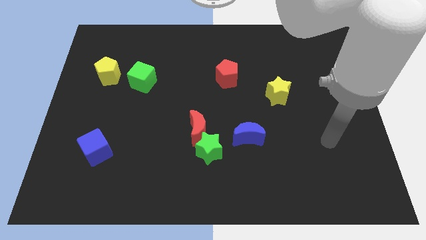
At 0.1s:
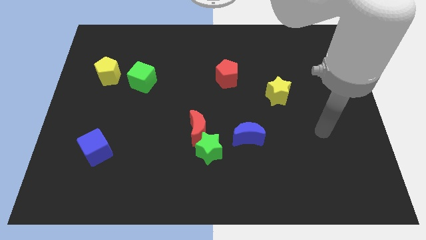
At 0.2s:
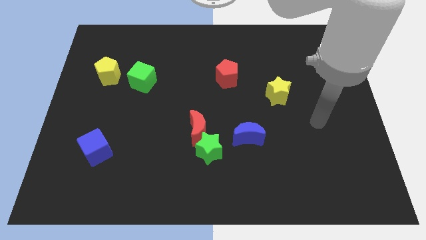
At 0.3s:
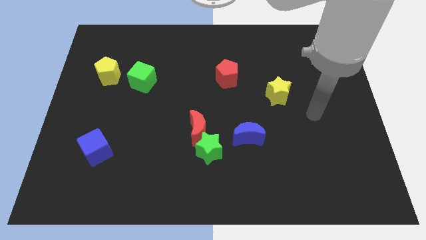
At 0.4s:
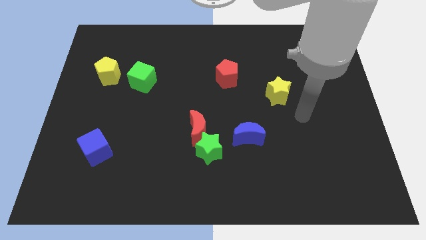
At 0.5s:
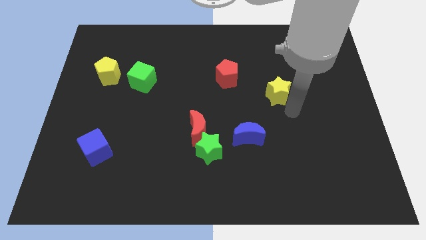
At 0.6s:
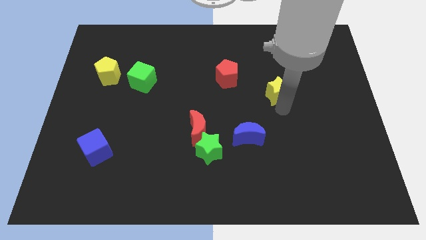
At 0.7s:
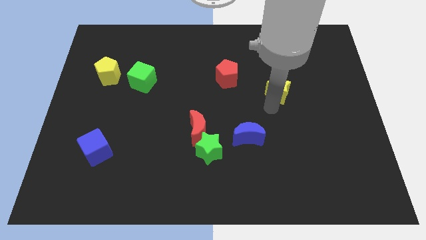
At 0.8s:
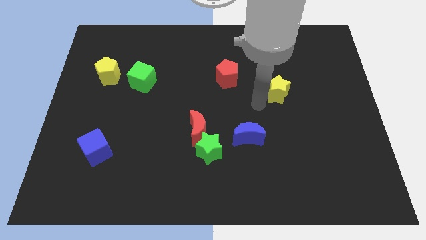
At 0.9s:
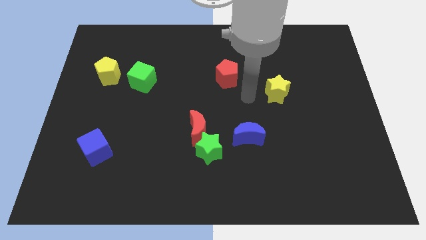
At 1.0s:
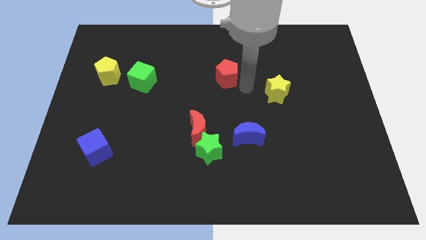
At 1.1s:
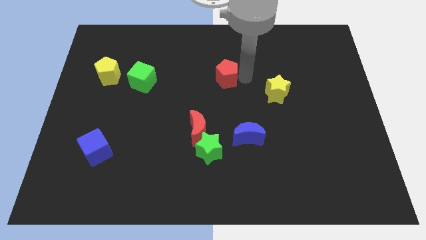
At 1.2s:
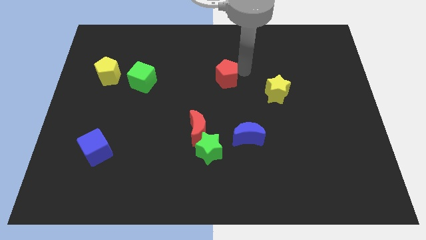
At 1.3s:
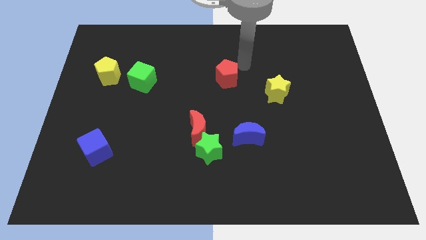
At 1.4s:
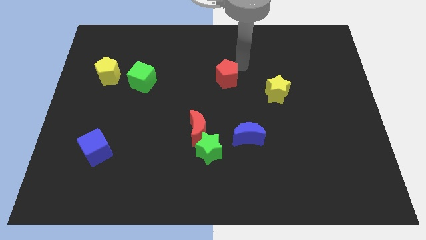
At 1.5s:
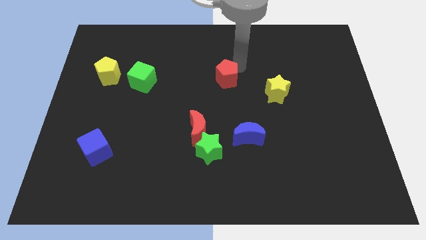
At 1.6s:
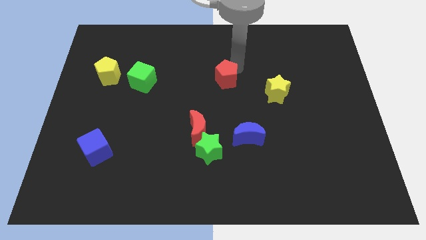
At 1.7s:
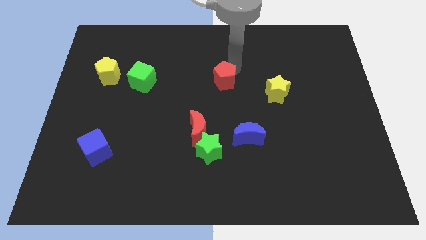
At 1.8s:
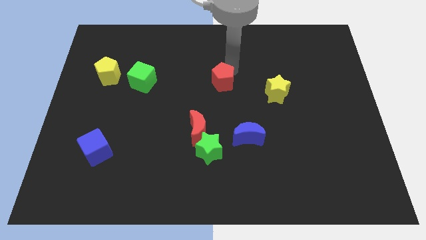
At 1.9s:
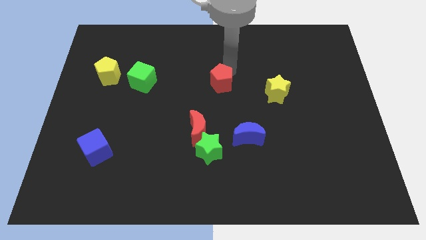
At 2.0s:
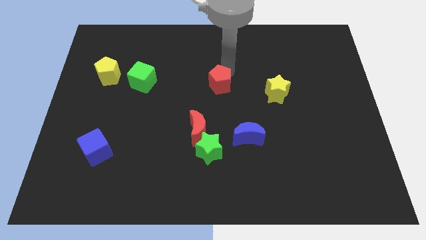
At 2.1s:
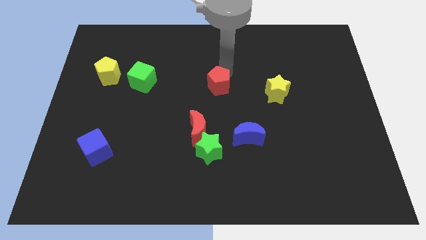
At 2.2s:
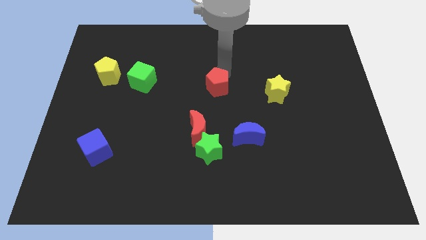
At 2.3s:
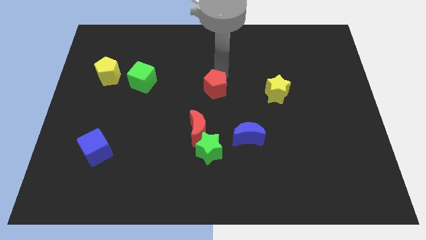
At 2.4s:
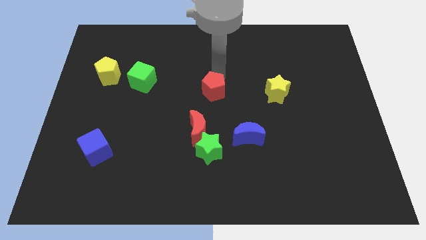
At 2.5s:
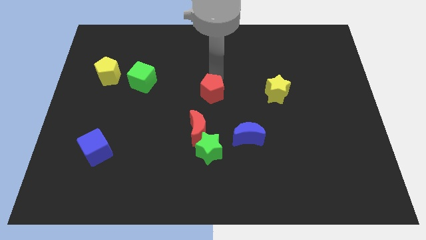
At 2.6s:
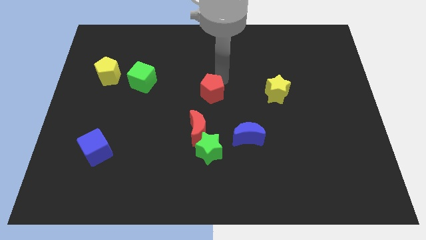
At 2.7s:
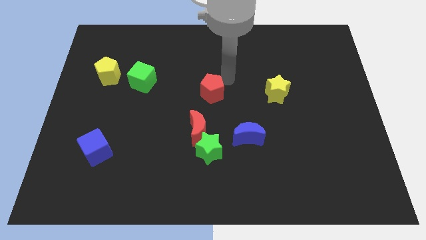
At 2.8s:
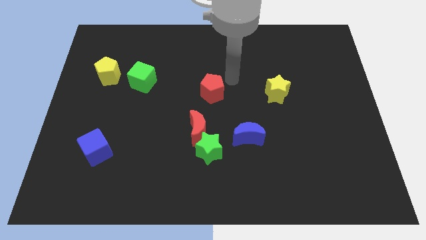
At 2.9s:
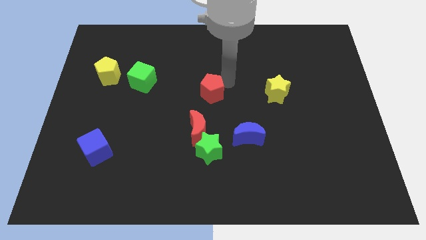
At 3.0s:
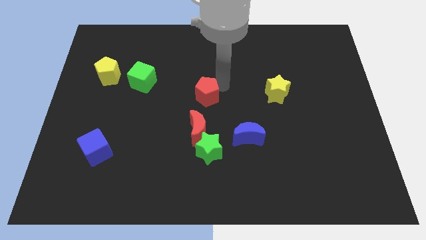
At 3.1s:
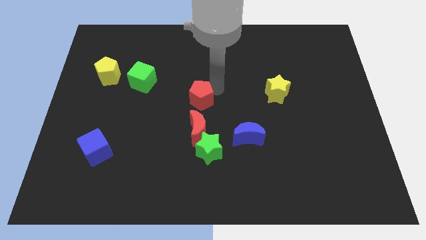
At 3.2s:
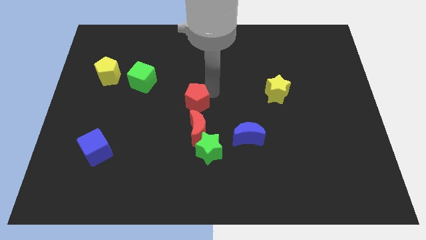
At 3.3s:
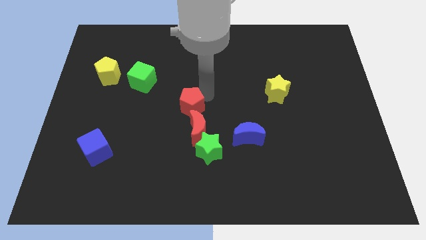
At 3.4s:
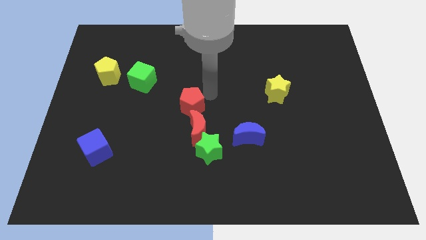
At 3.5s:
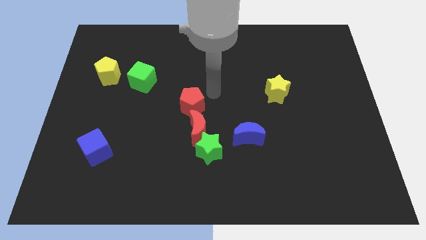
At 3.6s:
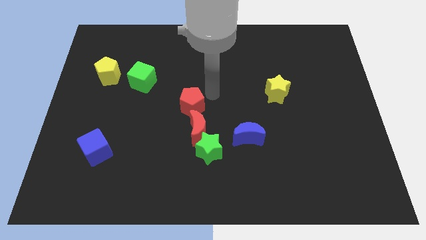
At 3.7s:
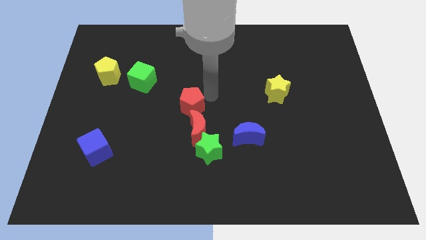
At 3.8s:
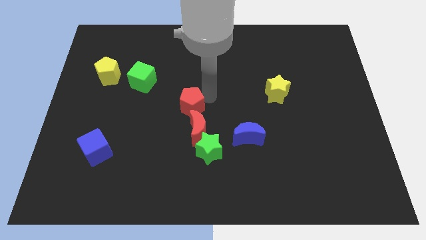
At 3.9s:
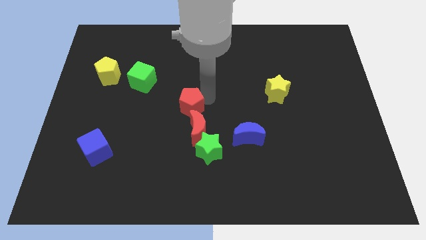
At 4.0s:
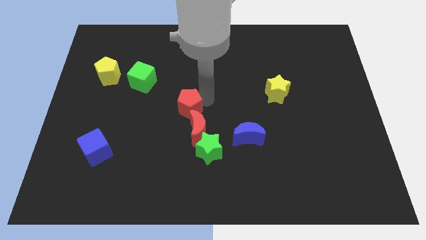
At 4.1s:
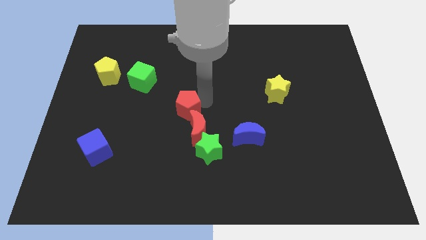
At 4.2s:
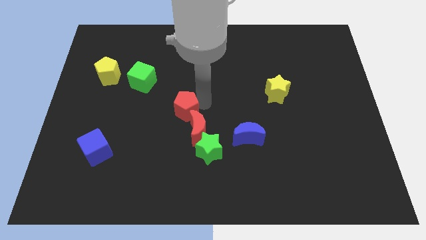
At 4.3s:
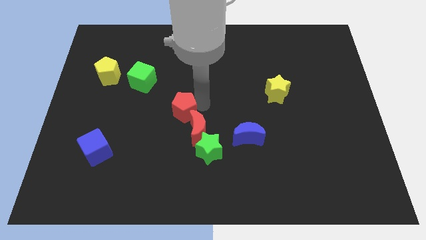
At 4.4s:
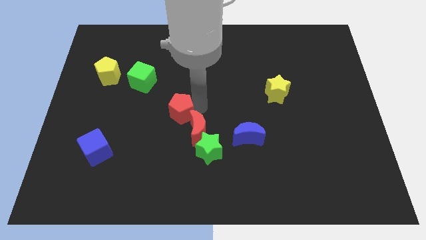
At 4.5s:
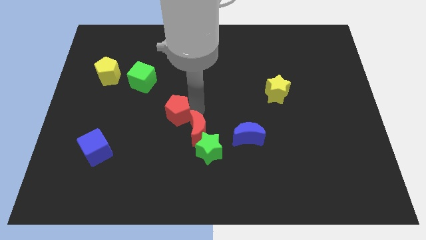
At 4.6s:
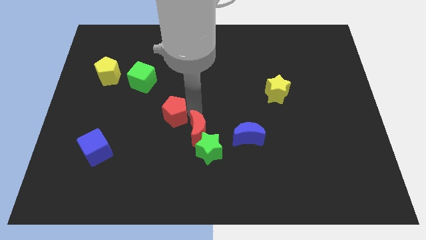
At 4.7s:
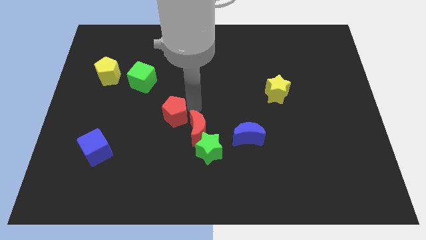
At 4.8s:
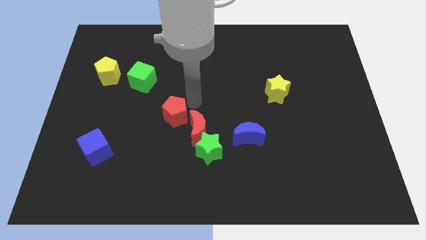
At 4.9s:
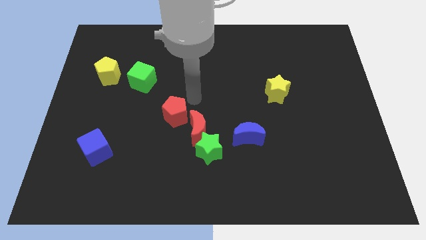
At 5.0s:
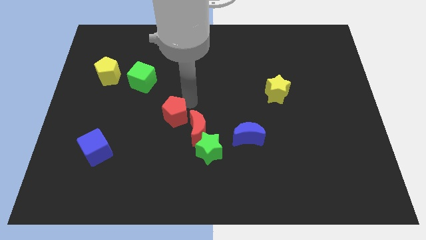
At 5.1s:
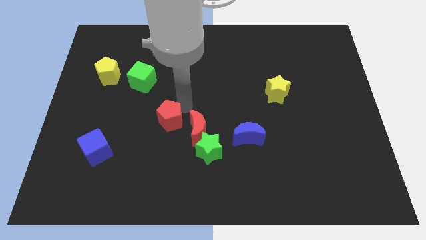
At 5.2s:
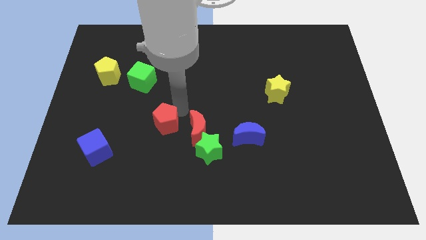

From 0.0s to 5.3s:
slide the red pentagon down and left

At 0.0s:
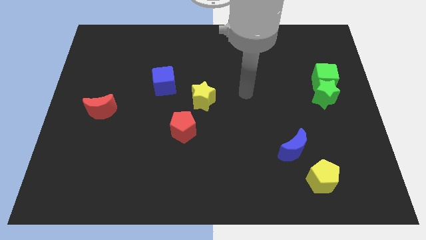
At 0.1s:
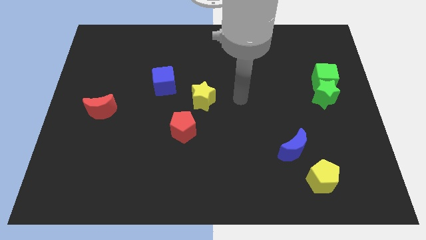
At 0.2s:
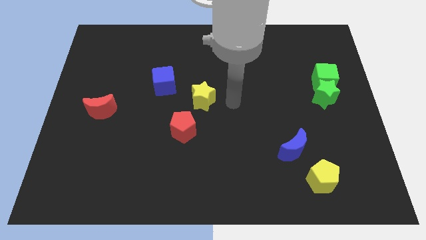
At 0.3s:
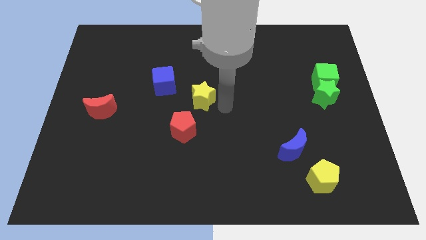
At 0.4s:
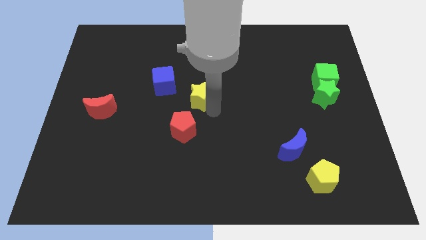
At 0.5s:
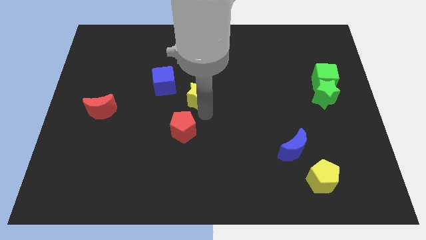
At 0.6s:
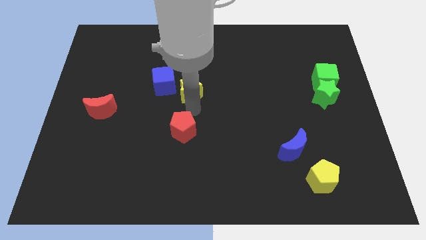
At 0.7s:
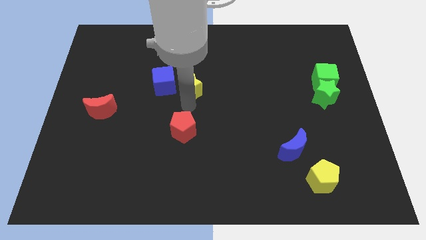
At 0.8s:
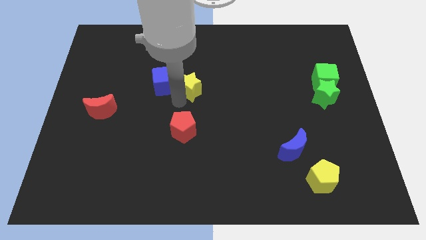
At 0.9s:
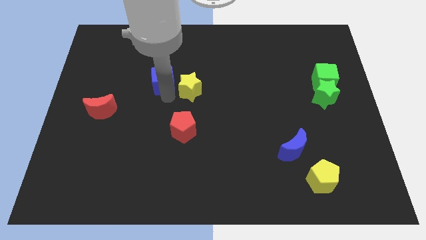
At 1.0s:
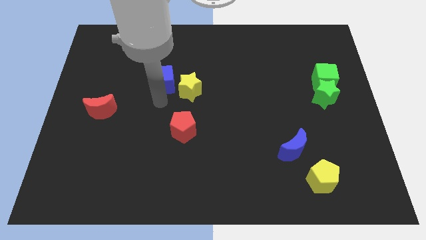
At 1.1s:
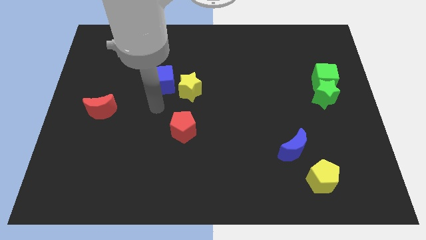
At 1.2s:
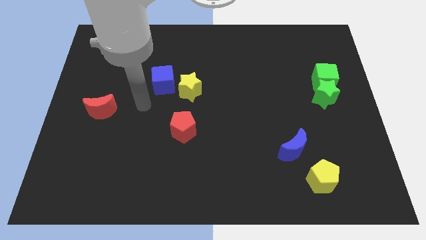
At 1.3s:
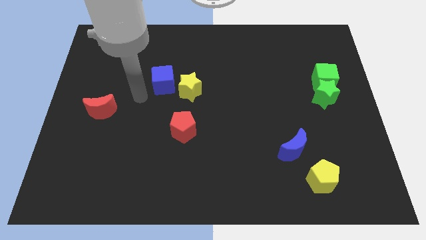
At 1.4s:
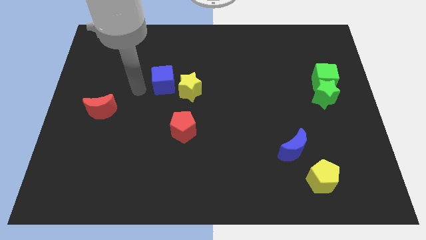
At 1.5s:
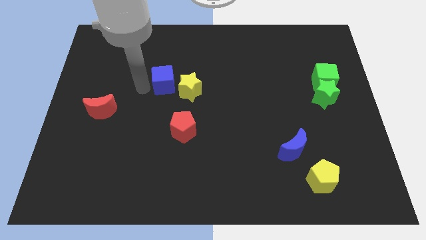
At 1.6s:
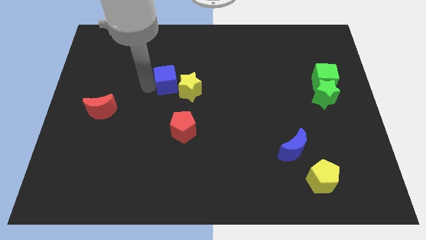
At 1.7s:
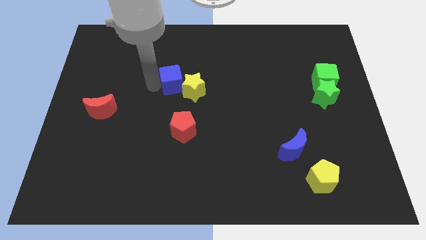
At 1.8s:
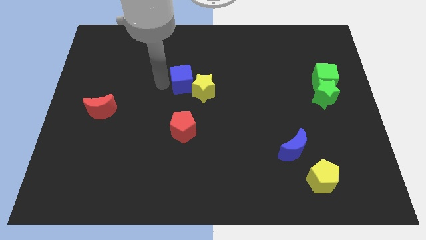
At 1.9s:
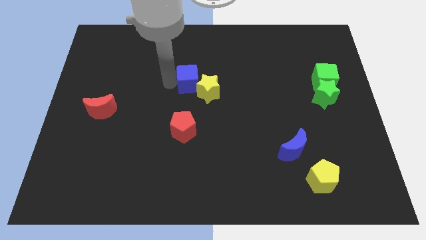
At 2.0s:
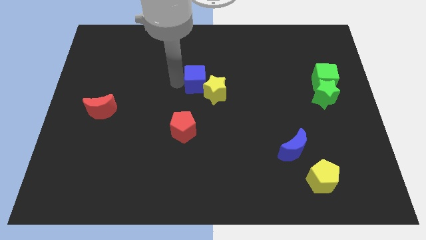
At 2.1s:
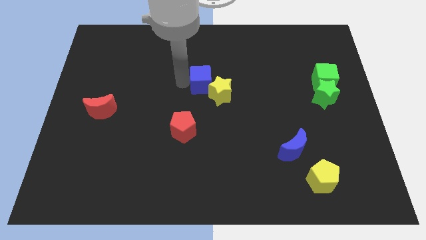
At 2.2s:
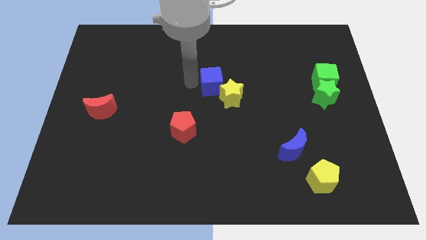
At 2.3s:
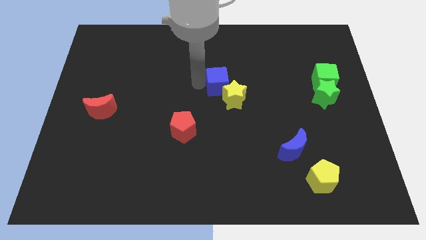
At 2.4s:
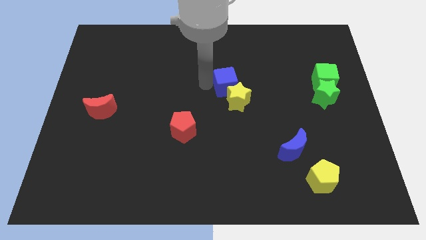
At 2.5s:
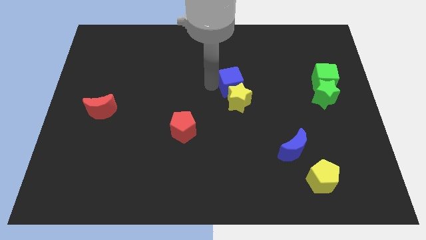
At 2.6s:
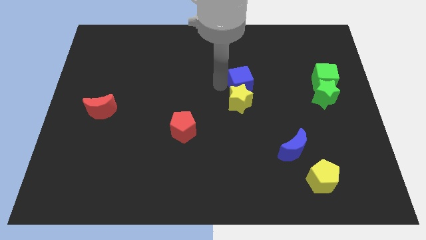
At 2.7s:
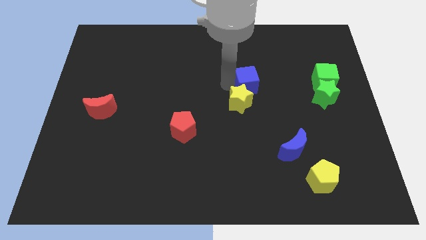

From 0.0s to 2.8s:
push the blue cube right
